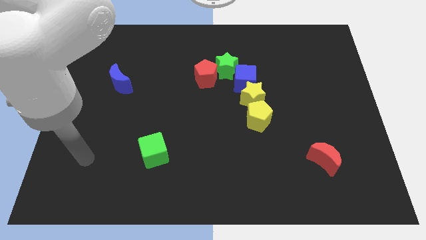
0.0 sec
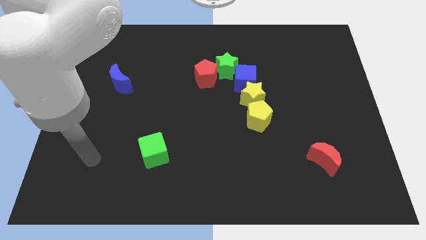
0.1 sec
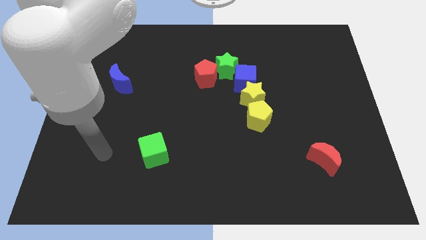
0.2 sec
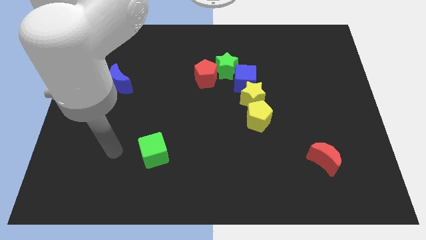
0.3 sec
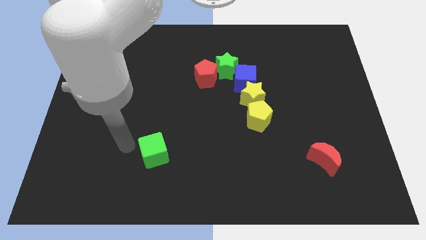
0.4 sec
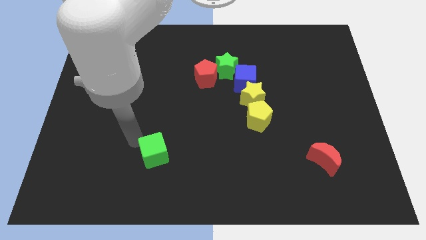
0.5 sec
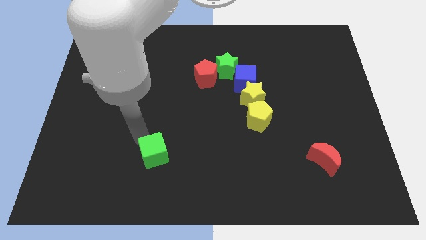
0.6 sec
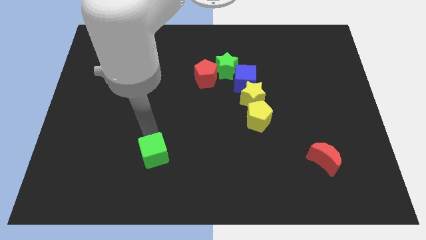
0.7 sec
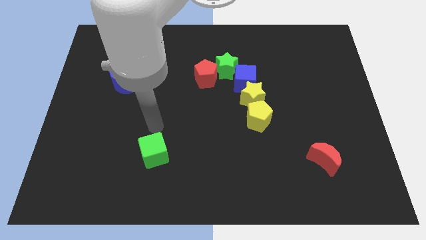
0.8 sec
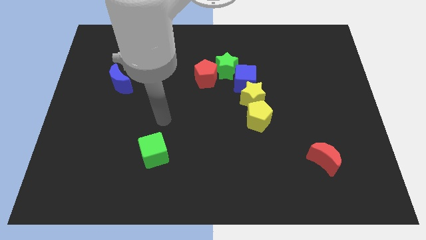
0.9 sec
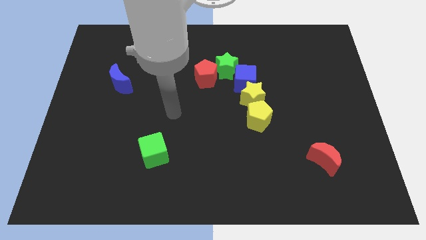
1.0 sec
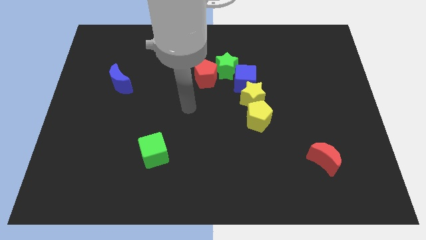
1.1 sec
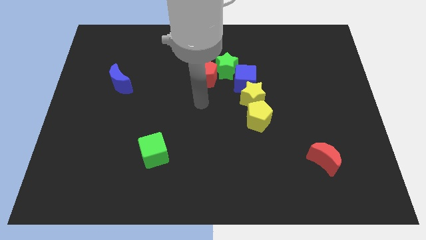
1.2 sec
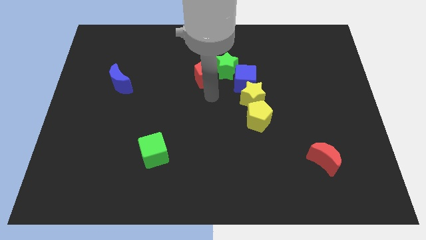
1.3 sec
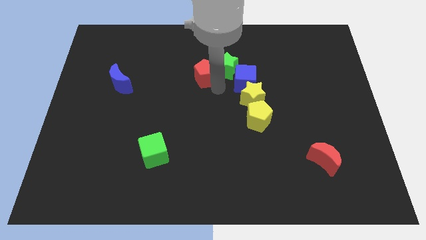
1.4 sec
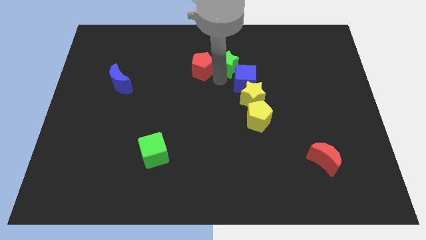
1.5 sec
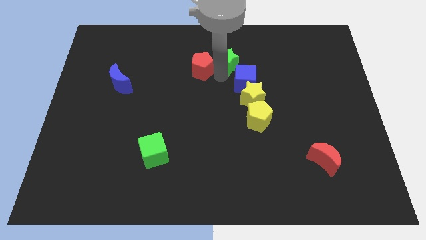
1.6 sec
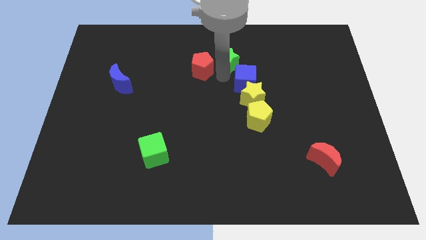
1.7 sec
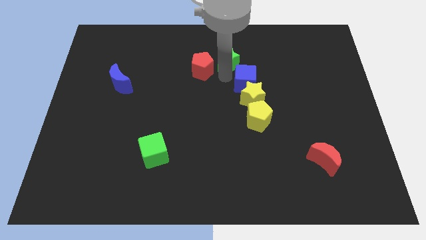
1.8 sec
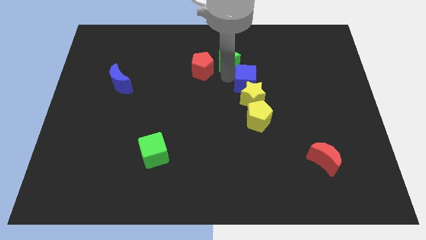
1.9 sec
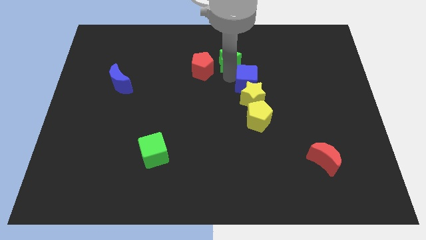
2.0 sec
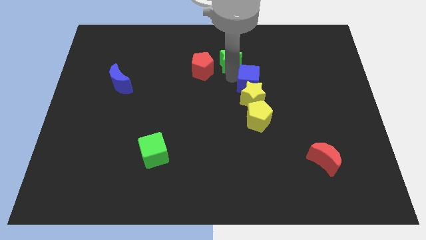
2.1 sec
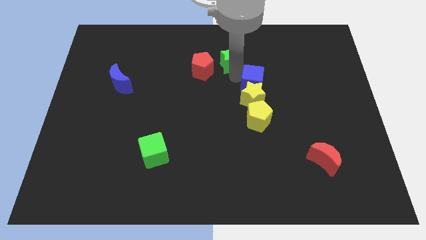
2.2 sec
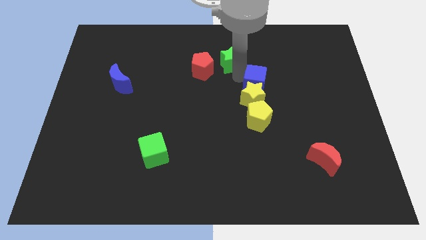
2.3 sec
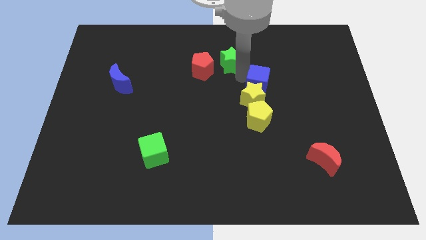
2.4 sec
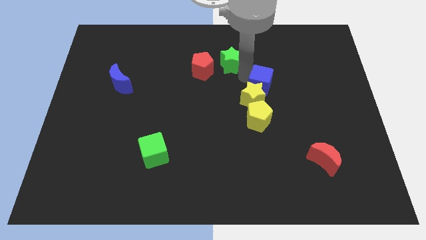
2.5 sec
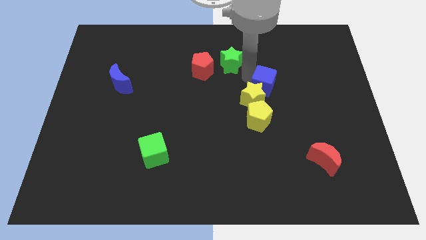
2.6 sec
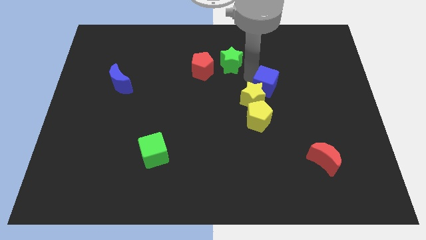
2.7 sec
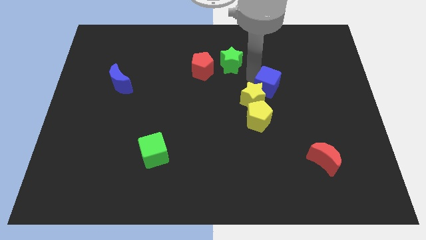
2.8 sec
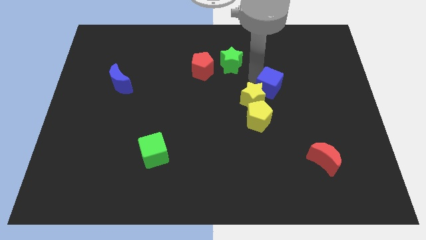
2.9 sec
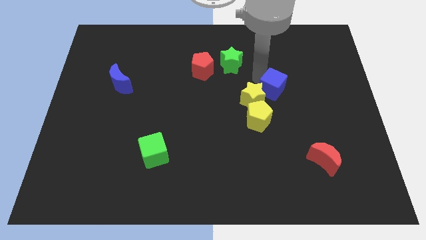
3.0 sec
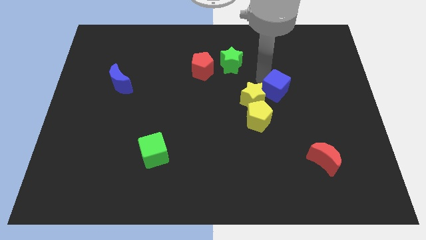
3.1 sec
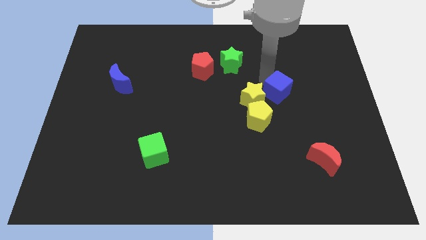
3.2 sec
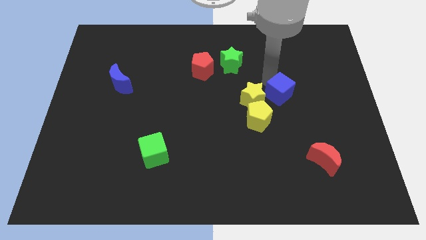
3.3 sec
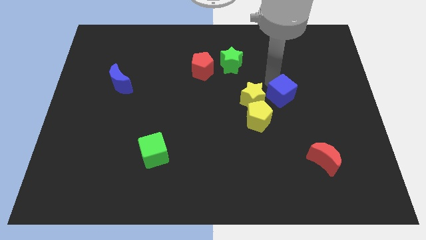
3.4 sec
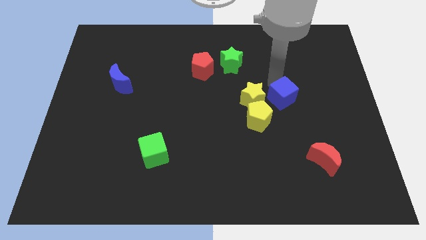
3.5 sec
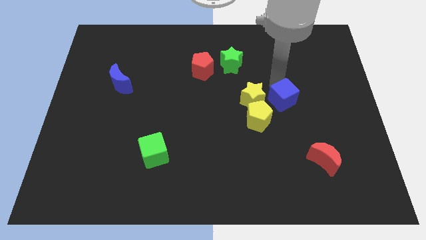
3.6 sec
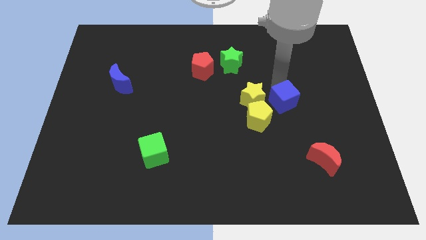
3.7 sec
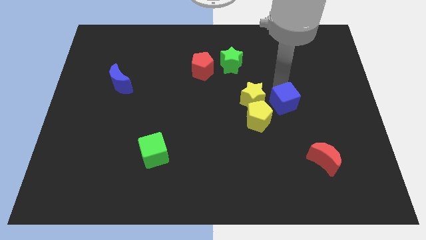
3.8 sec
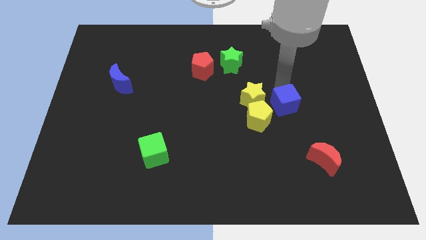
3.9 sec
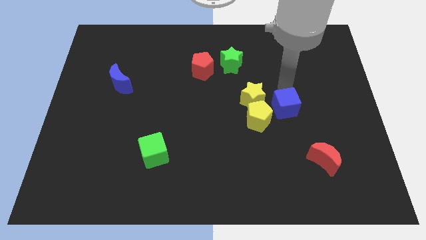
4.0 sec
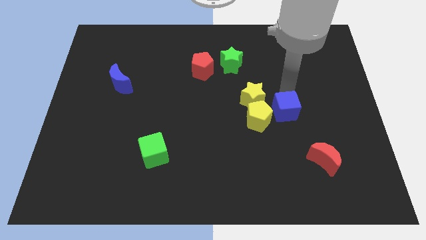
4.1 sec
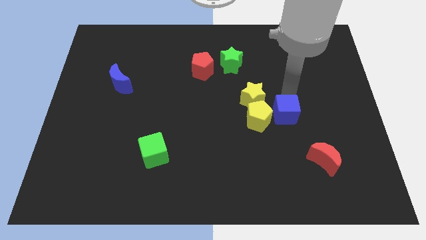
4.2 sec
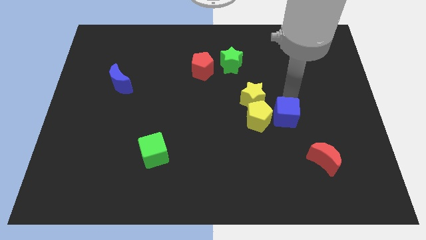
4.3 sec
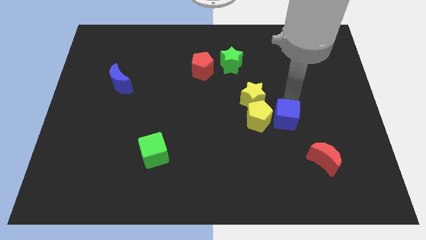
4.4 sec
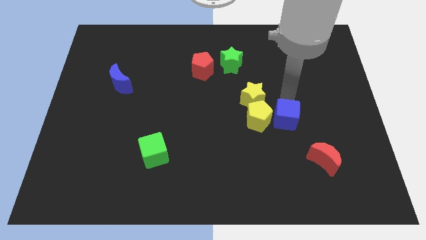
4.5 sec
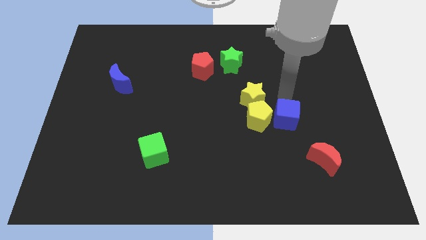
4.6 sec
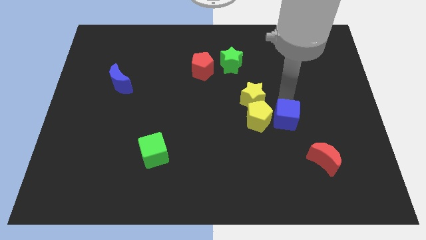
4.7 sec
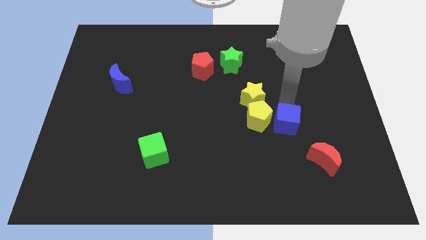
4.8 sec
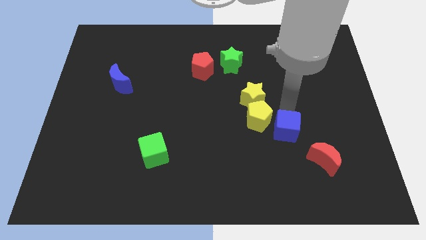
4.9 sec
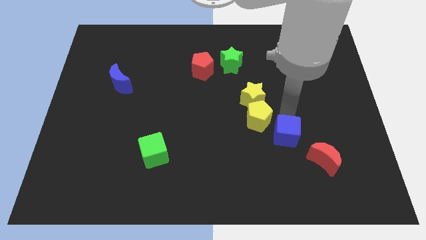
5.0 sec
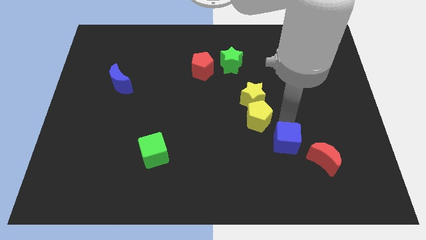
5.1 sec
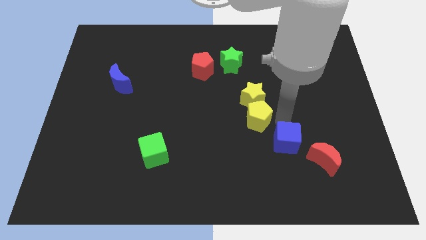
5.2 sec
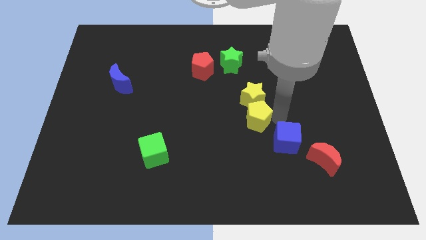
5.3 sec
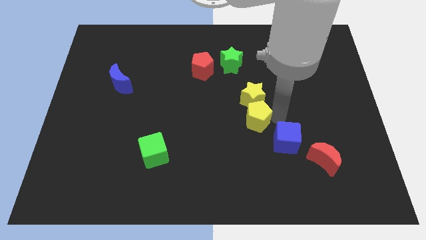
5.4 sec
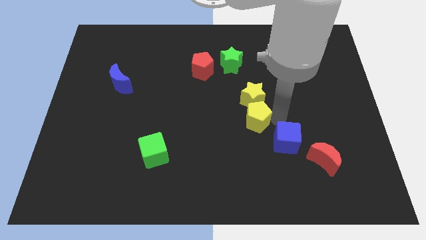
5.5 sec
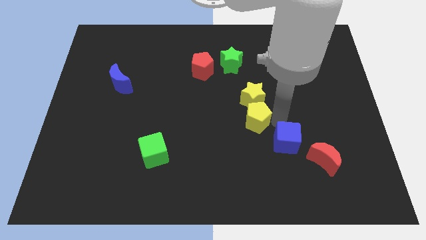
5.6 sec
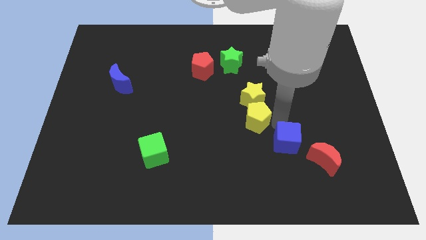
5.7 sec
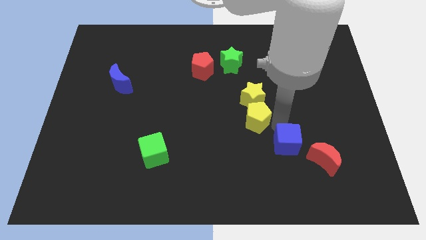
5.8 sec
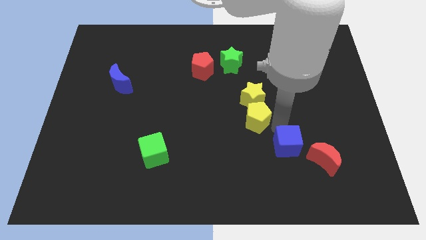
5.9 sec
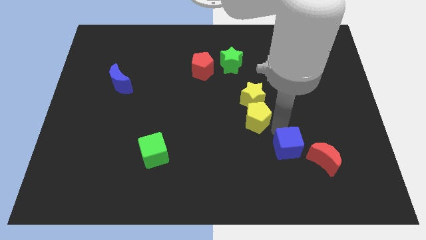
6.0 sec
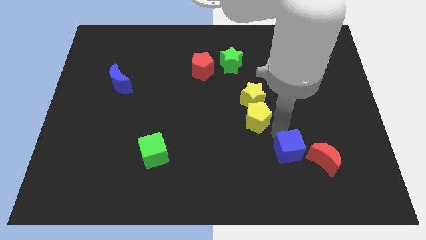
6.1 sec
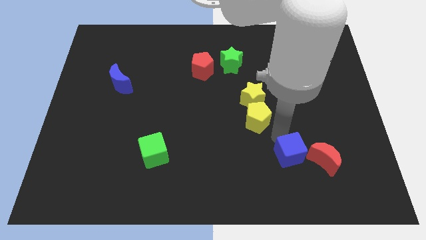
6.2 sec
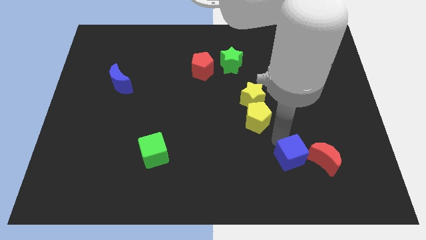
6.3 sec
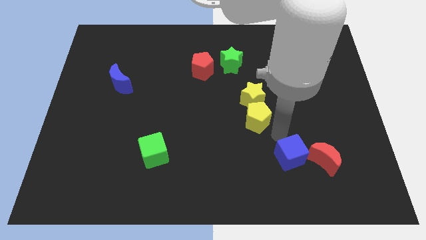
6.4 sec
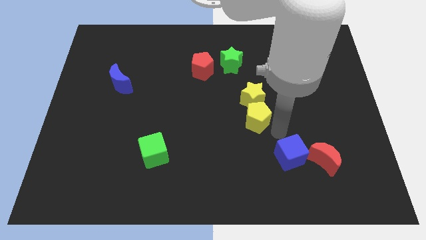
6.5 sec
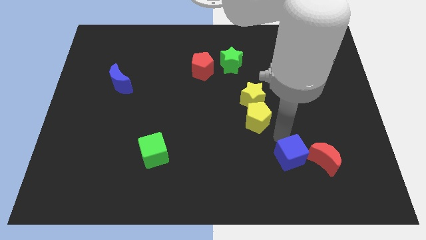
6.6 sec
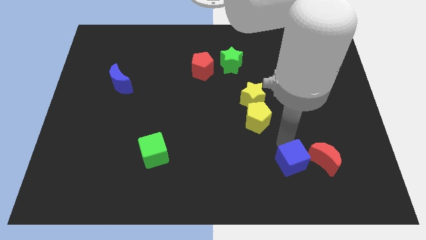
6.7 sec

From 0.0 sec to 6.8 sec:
put the blue cube to the bottom left side of the red moon

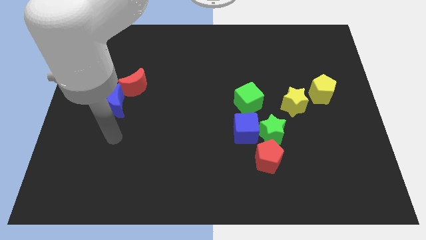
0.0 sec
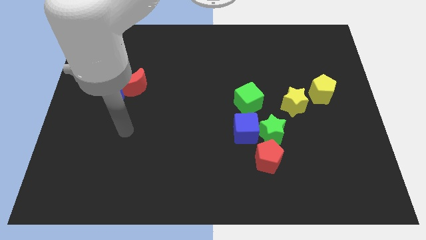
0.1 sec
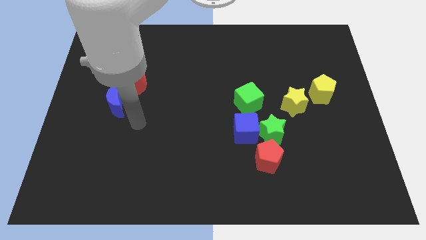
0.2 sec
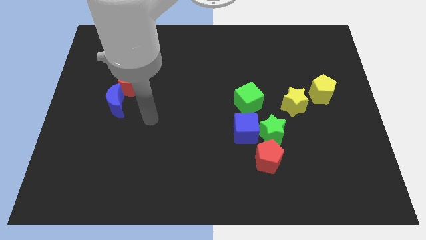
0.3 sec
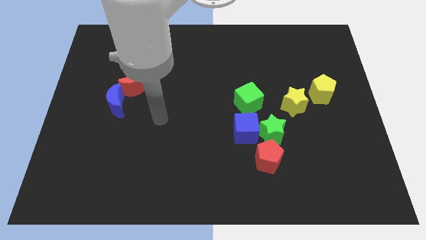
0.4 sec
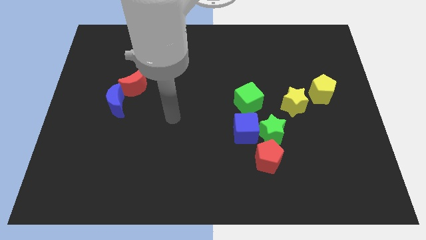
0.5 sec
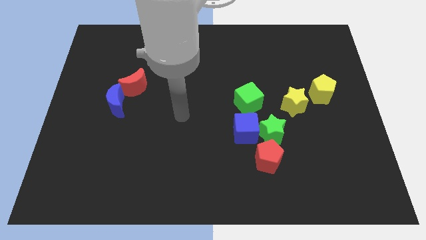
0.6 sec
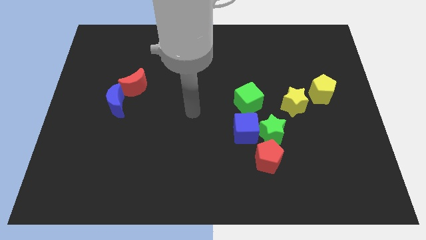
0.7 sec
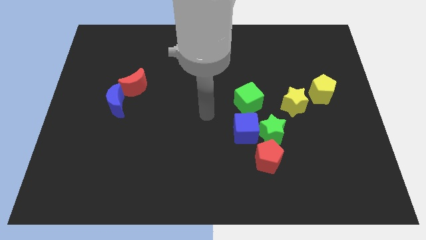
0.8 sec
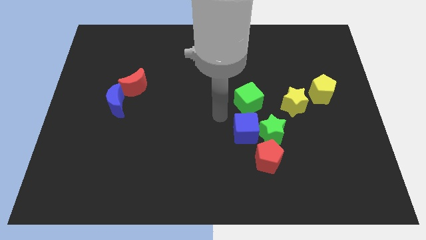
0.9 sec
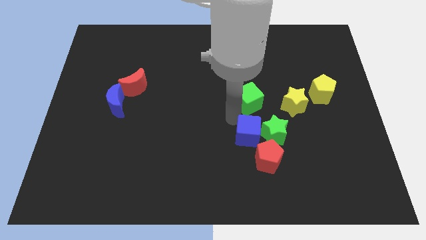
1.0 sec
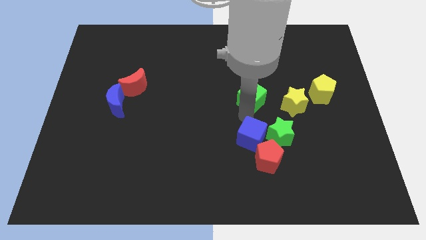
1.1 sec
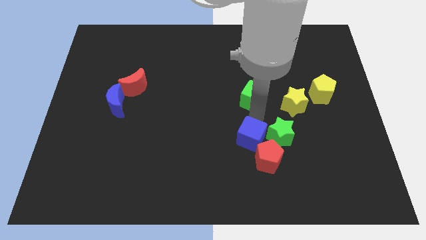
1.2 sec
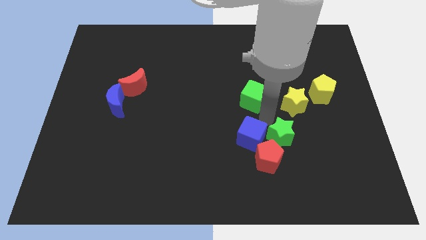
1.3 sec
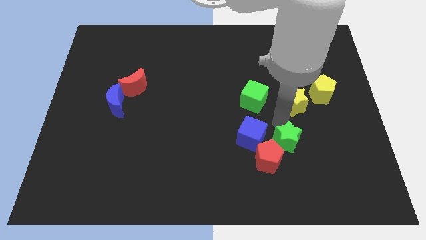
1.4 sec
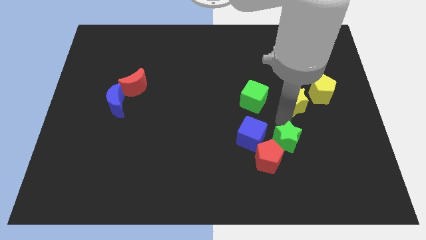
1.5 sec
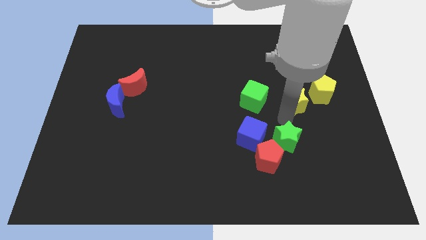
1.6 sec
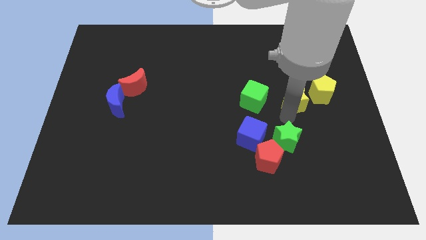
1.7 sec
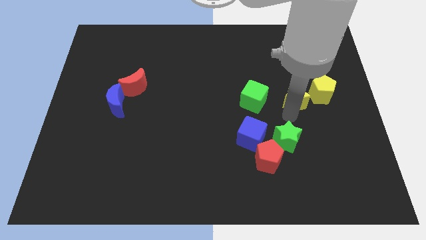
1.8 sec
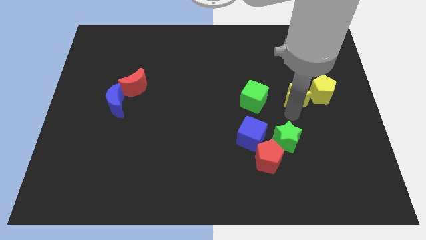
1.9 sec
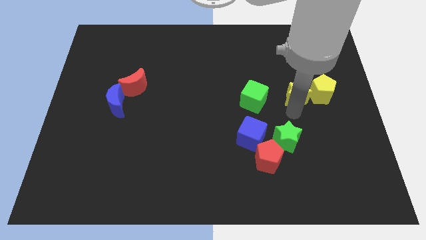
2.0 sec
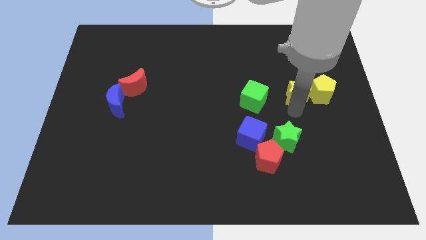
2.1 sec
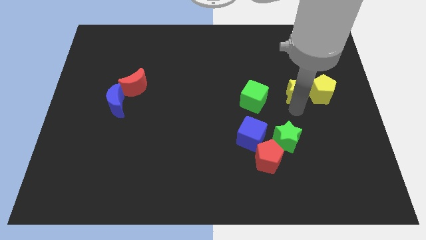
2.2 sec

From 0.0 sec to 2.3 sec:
put the yellow star diagonally up and to the left of the yellow pentagon
